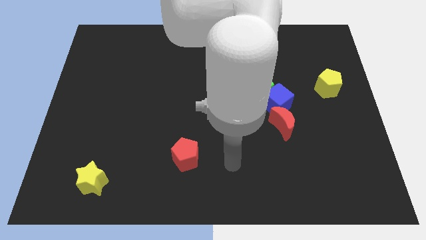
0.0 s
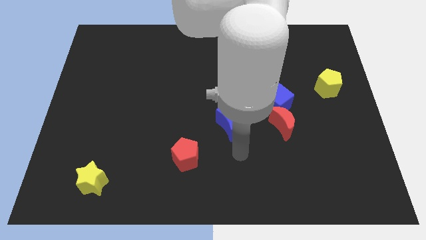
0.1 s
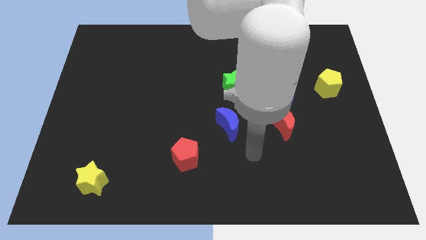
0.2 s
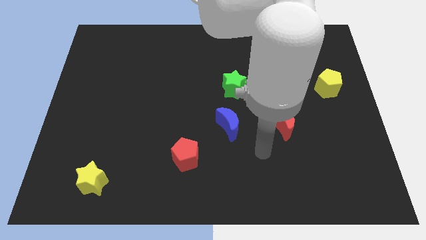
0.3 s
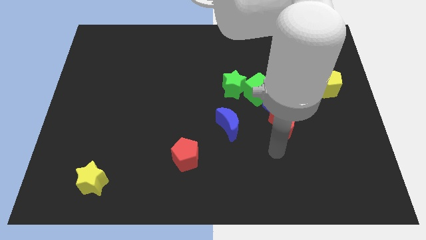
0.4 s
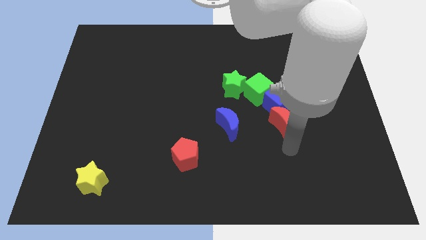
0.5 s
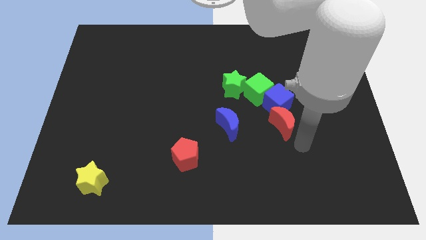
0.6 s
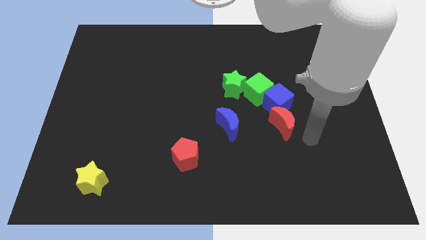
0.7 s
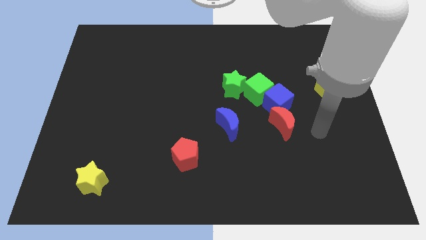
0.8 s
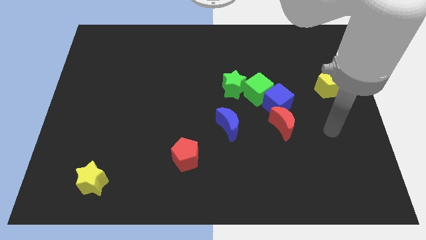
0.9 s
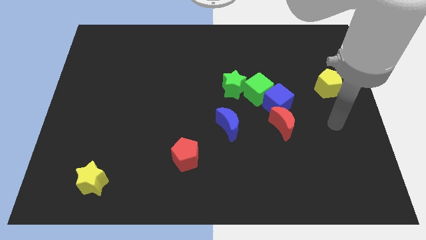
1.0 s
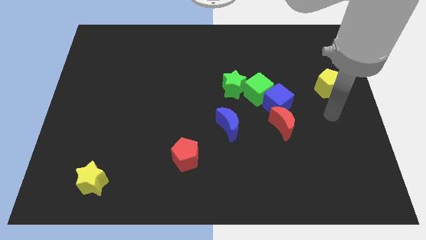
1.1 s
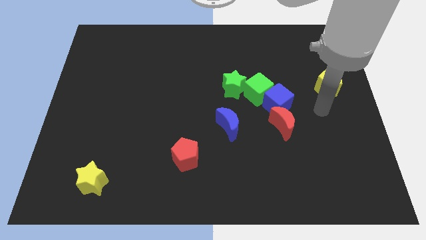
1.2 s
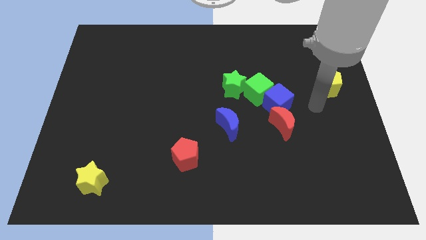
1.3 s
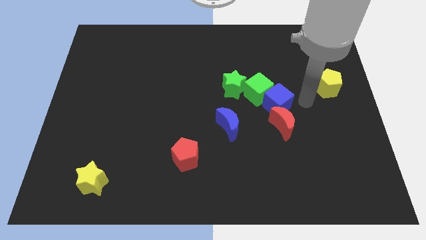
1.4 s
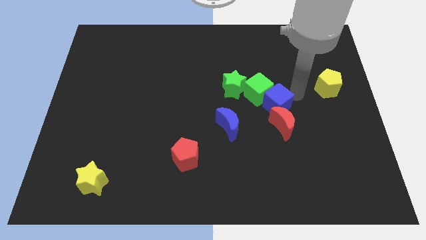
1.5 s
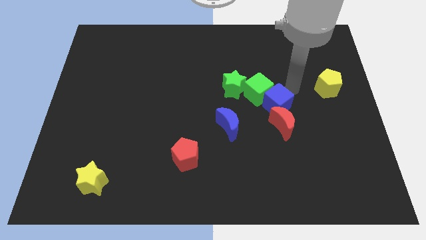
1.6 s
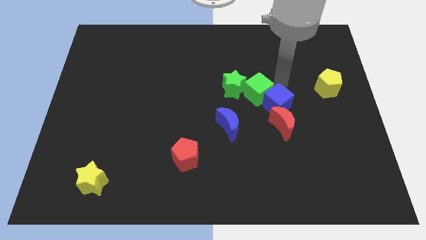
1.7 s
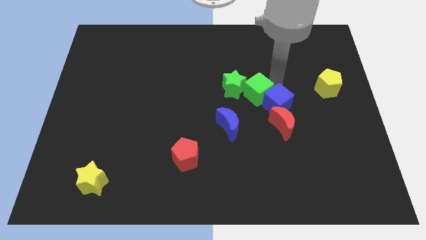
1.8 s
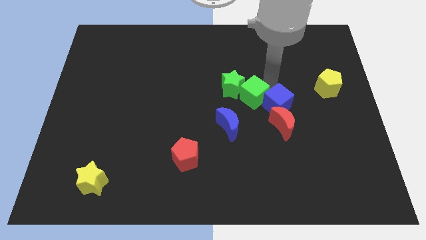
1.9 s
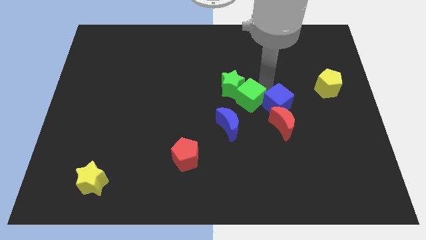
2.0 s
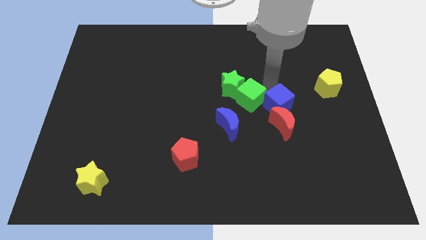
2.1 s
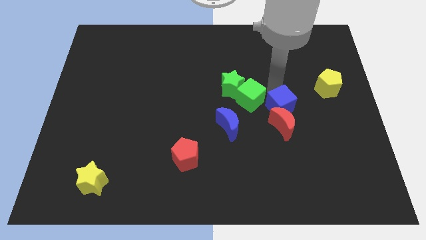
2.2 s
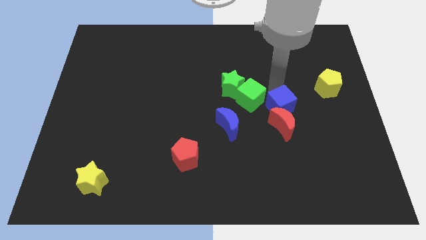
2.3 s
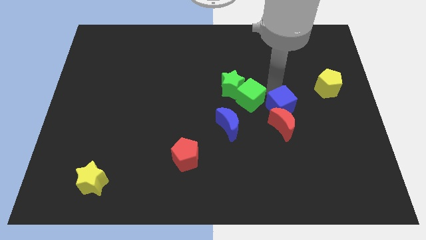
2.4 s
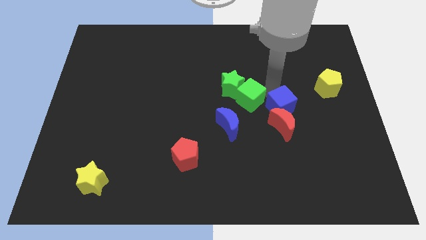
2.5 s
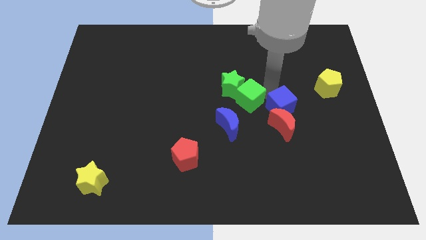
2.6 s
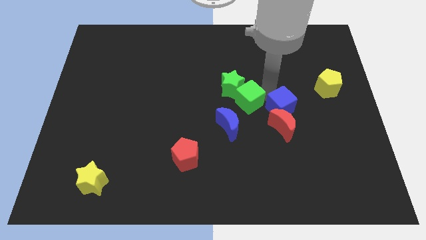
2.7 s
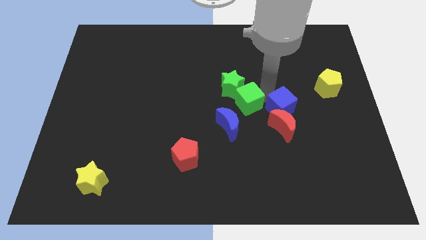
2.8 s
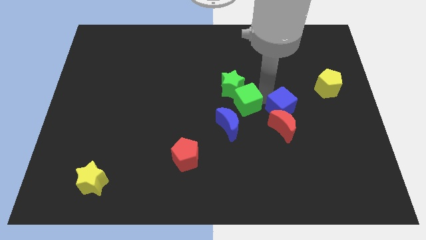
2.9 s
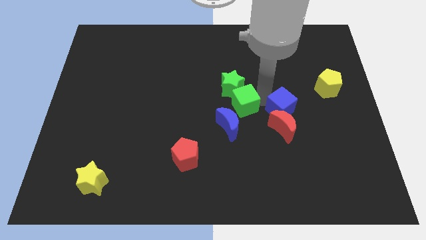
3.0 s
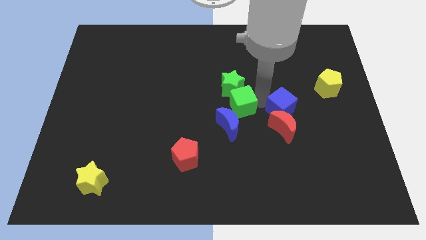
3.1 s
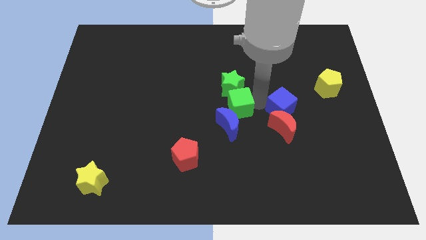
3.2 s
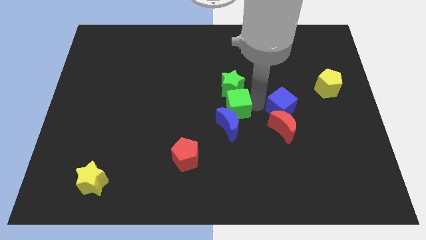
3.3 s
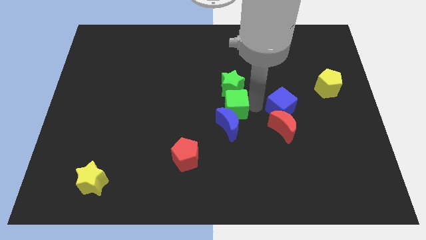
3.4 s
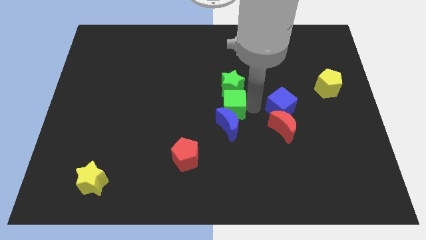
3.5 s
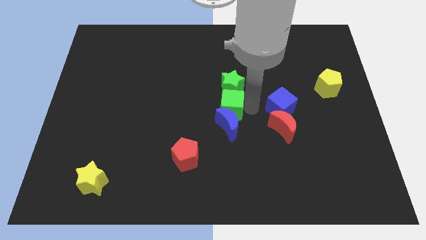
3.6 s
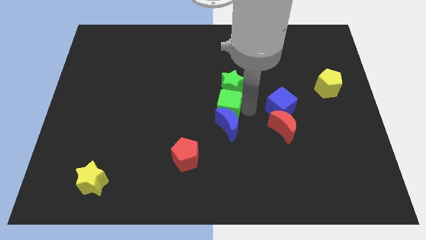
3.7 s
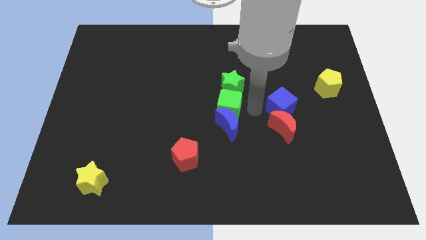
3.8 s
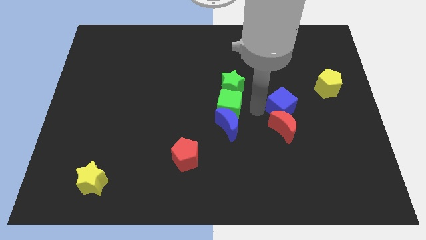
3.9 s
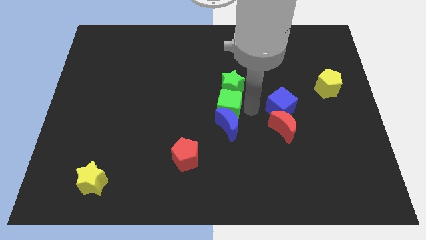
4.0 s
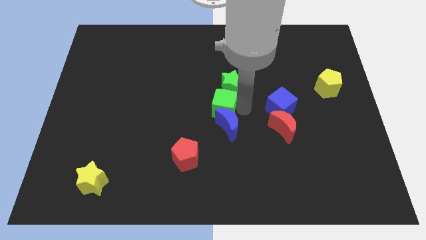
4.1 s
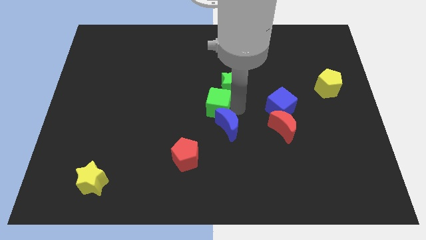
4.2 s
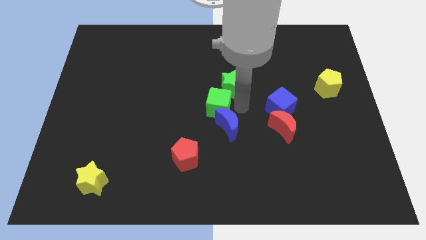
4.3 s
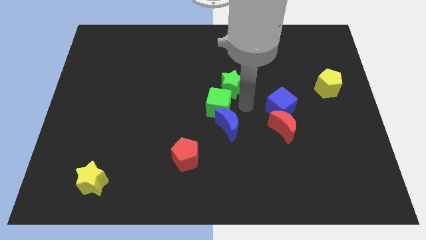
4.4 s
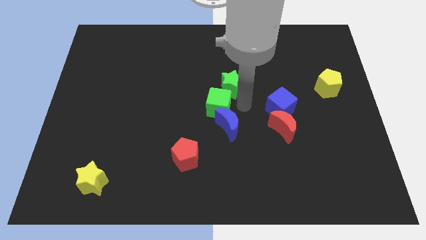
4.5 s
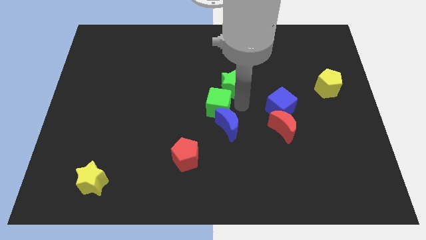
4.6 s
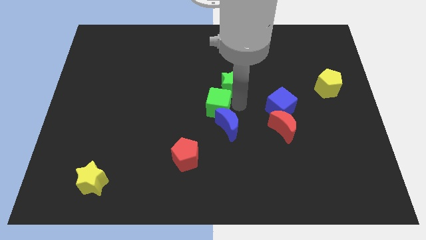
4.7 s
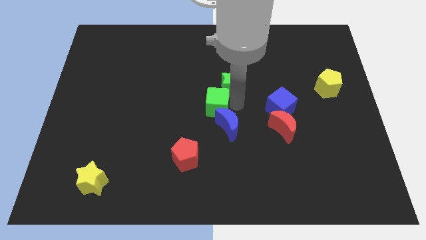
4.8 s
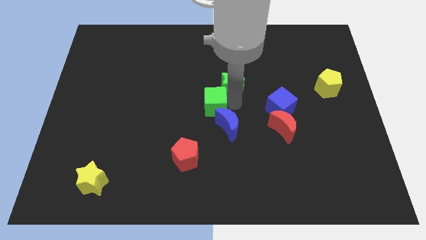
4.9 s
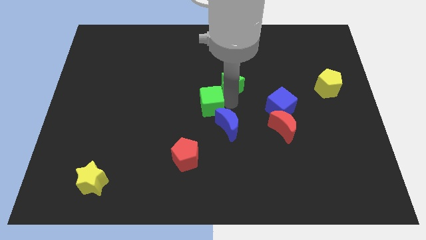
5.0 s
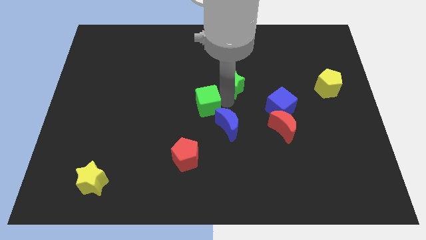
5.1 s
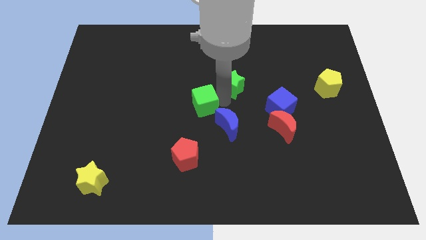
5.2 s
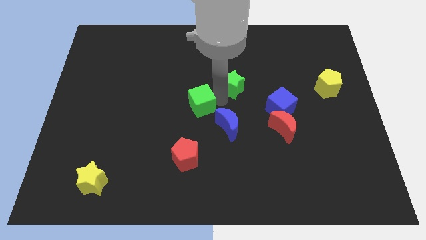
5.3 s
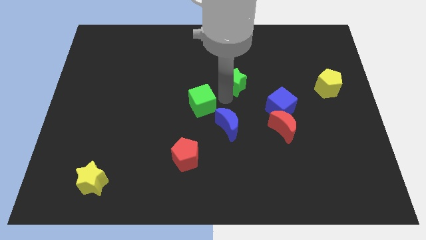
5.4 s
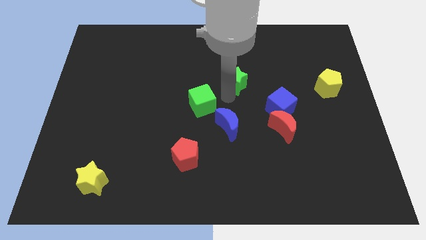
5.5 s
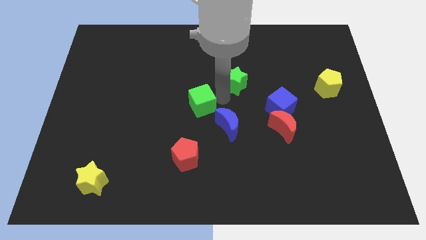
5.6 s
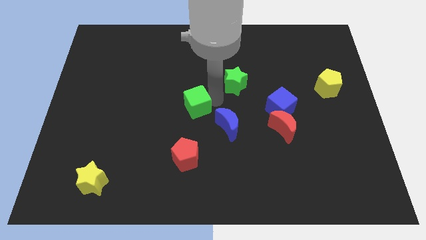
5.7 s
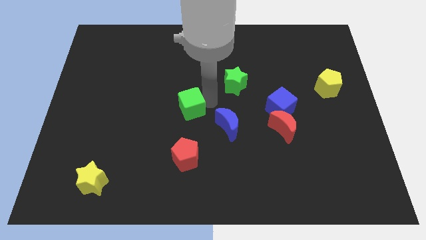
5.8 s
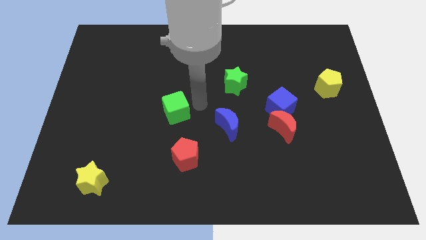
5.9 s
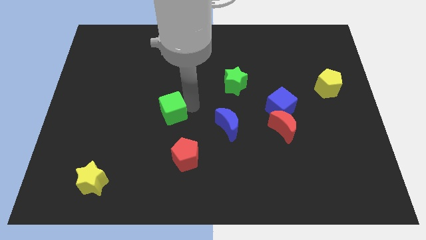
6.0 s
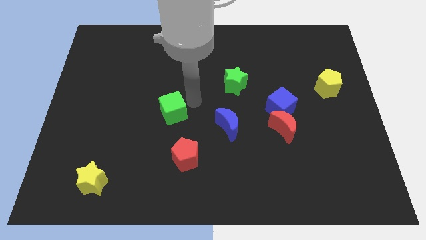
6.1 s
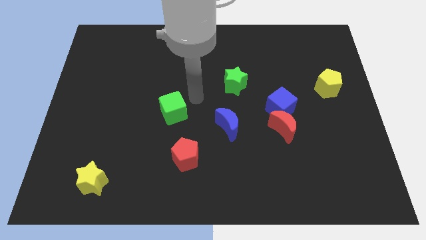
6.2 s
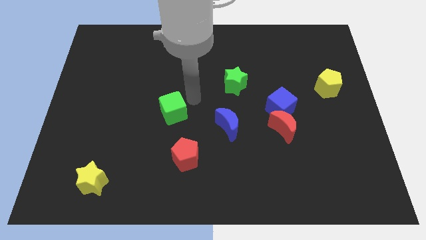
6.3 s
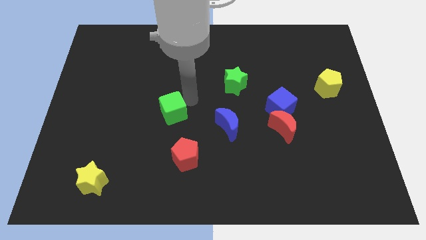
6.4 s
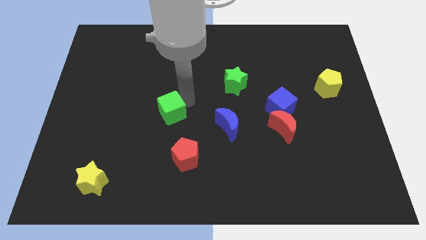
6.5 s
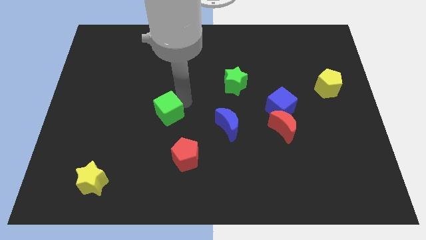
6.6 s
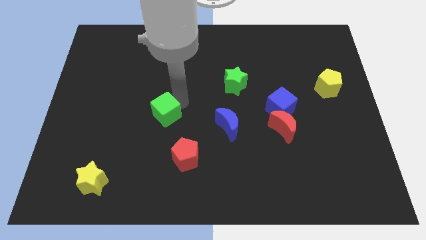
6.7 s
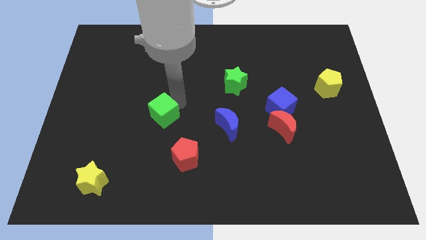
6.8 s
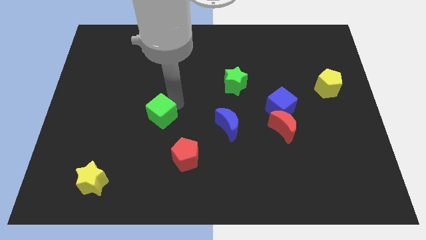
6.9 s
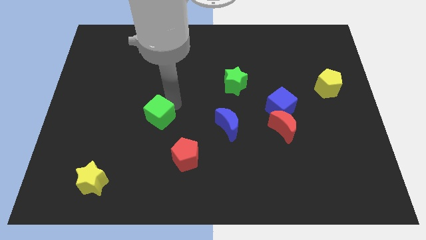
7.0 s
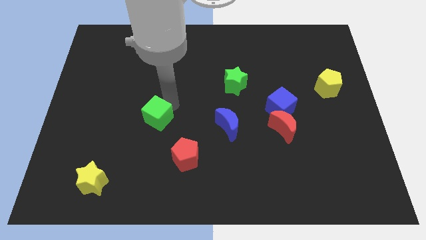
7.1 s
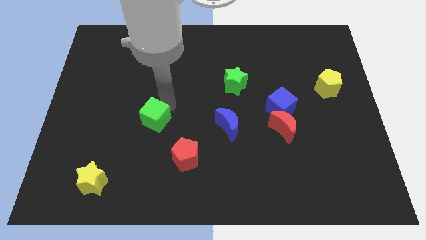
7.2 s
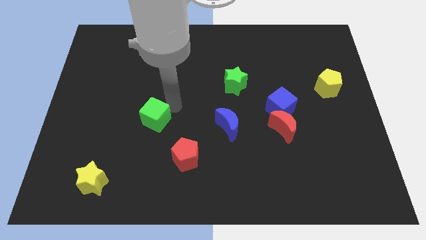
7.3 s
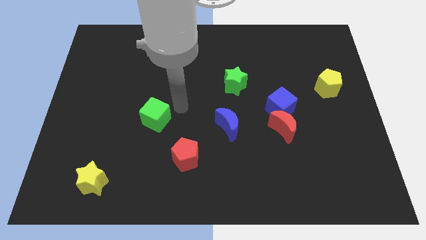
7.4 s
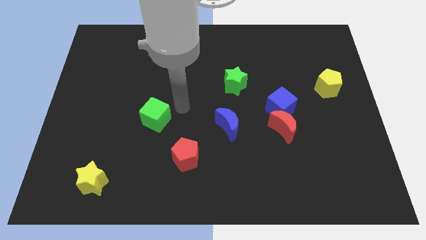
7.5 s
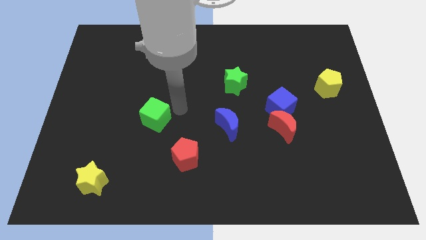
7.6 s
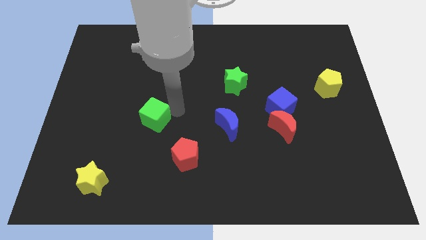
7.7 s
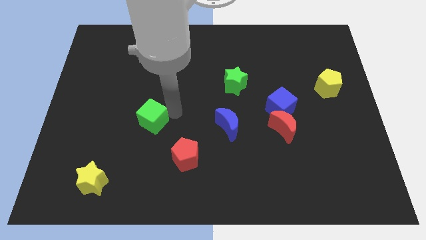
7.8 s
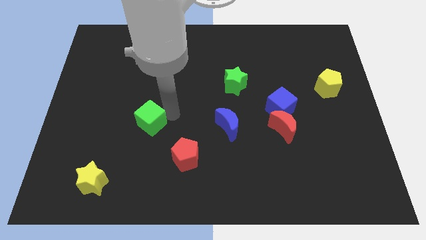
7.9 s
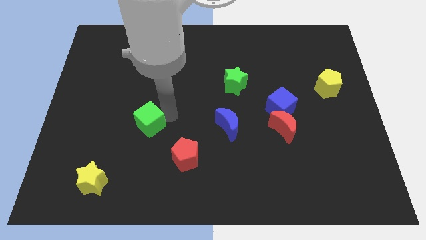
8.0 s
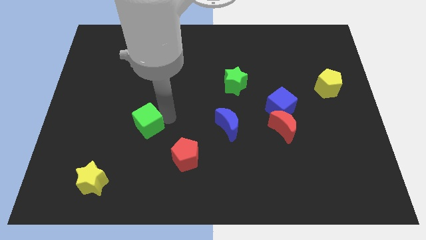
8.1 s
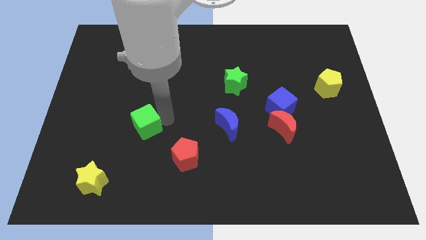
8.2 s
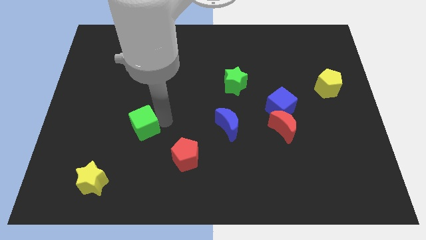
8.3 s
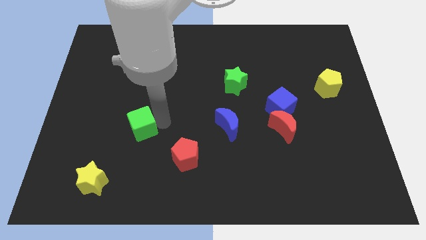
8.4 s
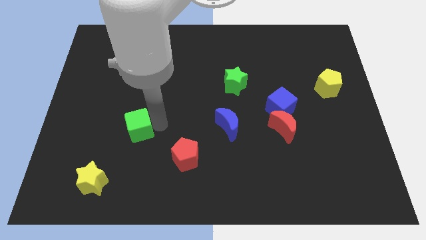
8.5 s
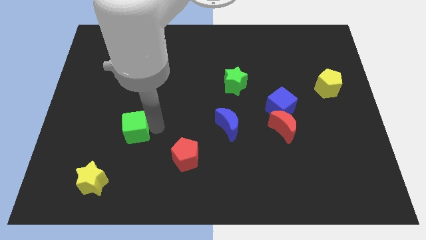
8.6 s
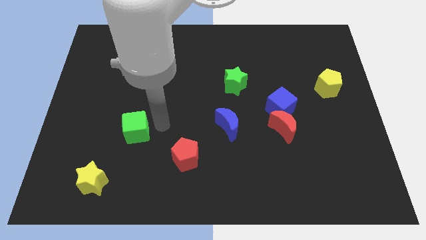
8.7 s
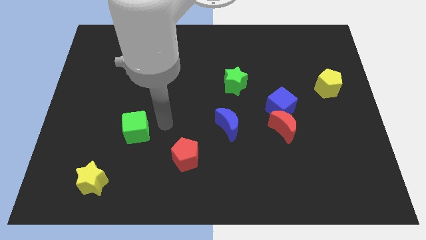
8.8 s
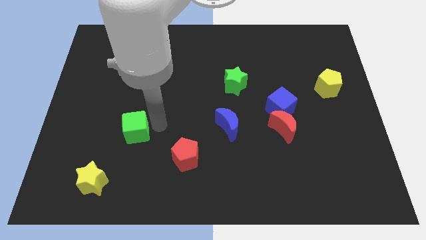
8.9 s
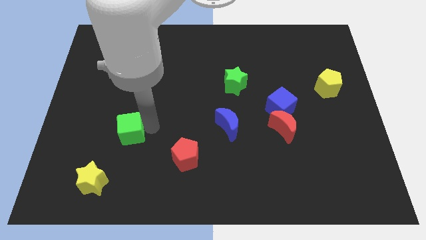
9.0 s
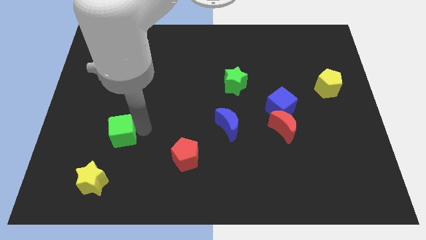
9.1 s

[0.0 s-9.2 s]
slide the green cube to the top of the yellow star
